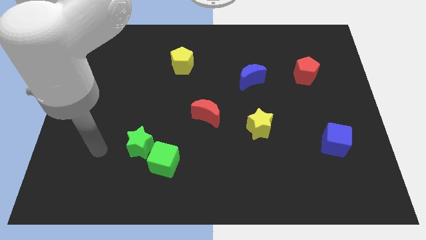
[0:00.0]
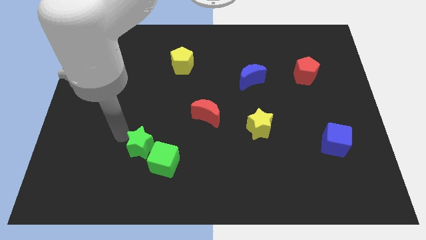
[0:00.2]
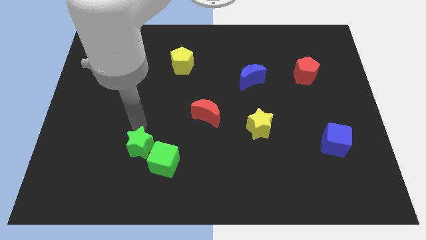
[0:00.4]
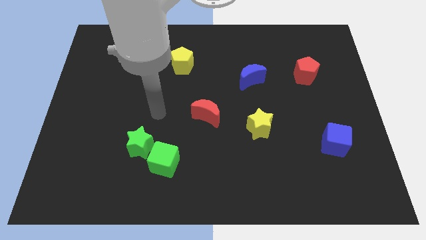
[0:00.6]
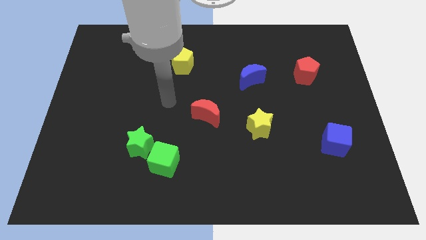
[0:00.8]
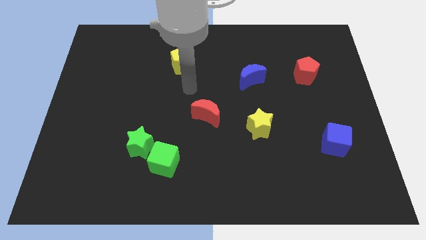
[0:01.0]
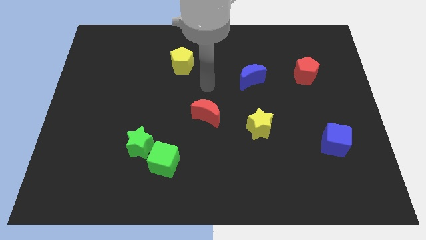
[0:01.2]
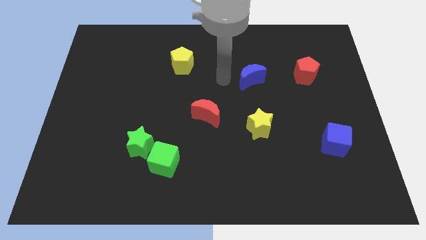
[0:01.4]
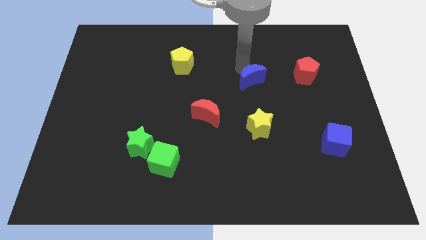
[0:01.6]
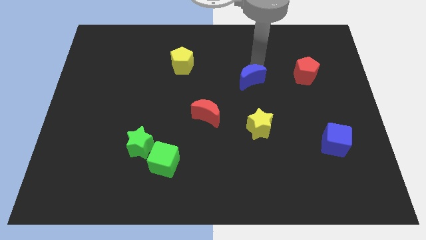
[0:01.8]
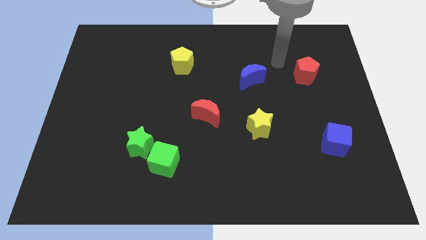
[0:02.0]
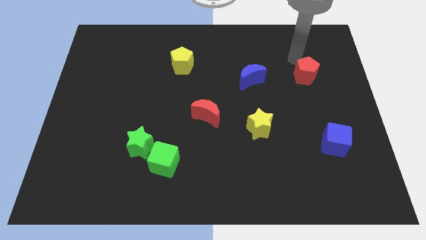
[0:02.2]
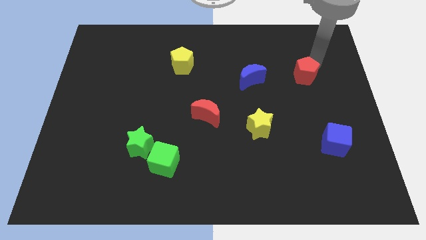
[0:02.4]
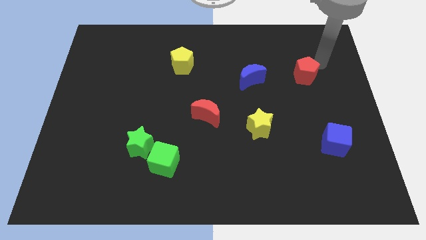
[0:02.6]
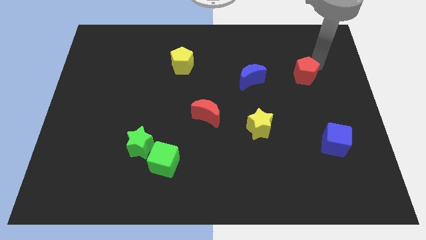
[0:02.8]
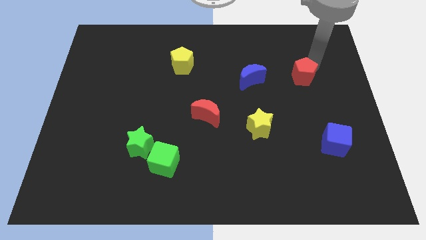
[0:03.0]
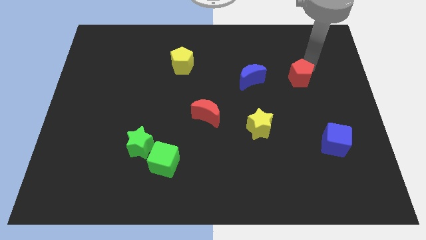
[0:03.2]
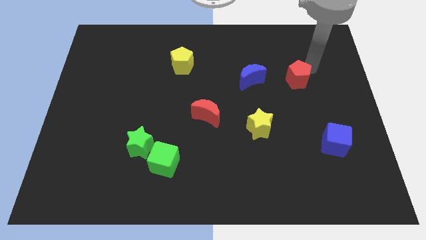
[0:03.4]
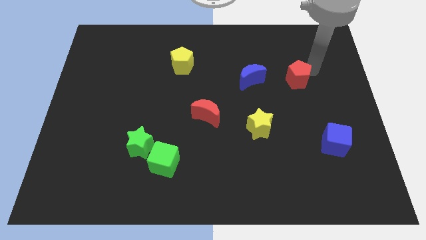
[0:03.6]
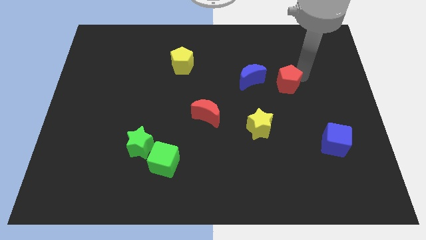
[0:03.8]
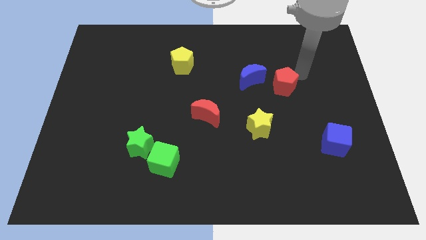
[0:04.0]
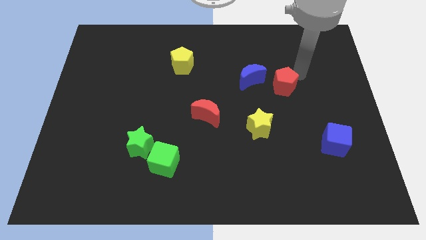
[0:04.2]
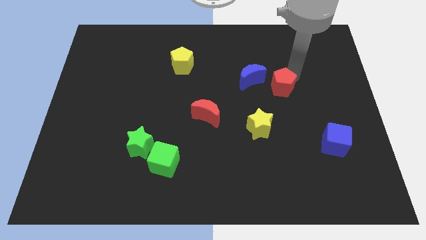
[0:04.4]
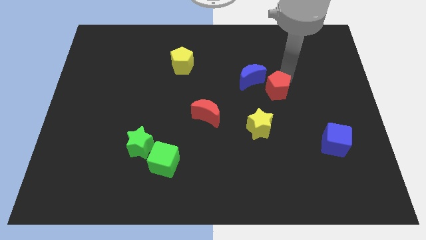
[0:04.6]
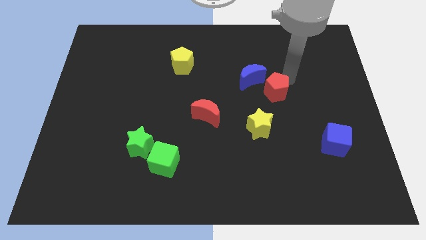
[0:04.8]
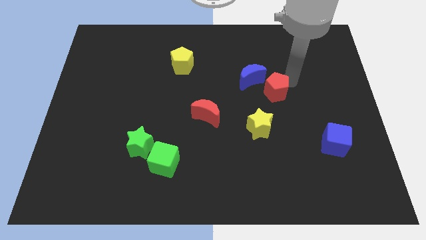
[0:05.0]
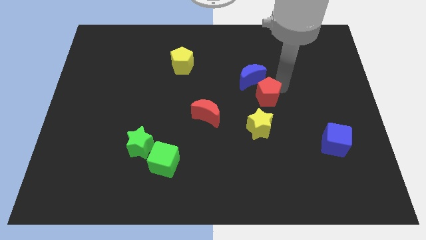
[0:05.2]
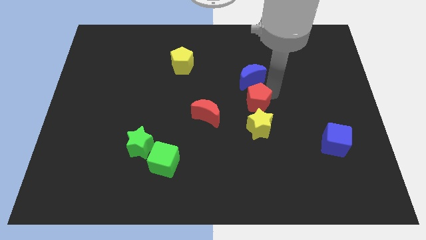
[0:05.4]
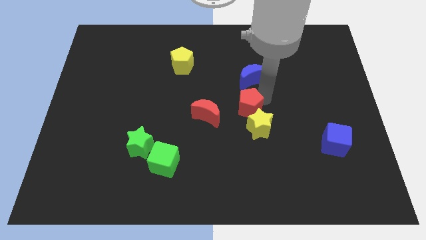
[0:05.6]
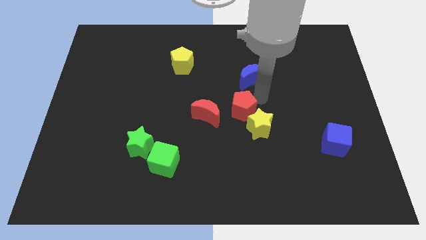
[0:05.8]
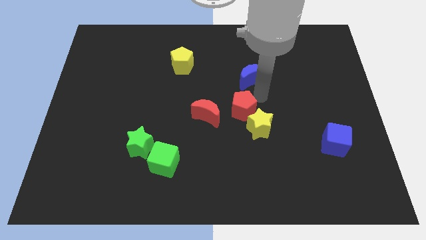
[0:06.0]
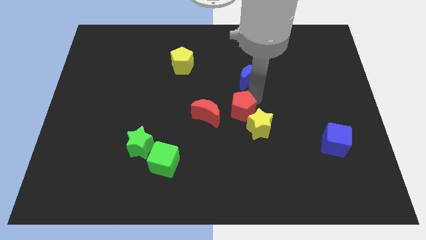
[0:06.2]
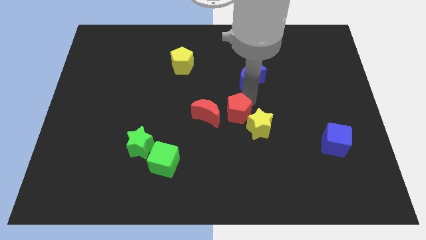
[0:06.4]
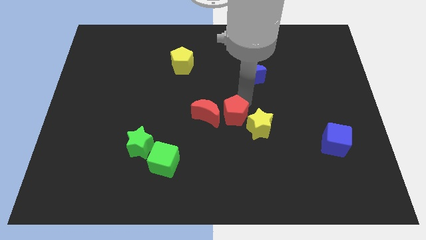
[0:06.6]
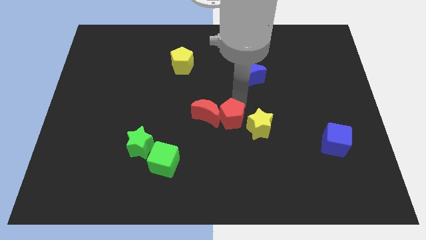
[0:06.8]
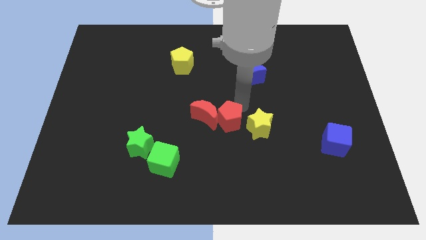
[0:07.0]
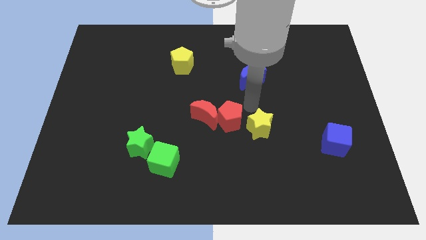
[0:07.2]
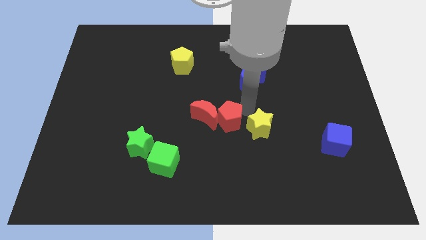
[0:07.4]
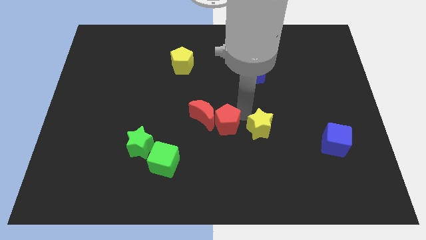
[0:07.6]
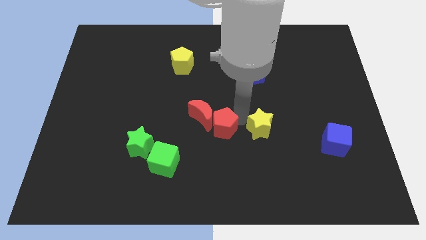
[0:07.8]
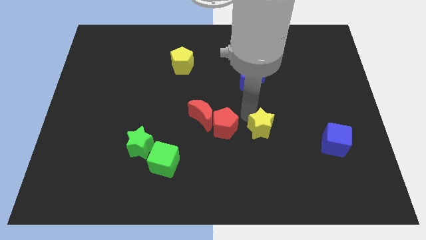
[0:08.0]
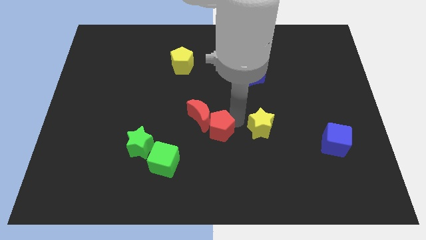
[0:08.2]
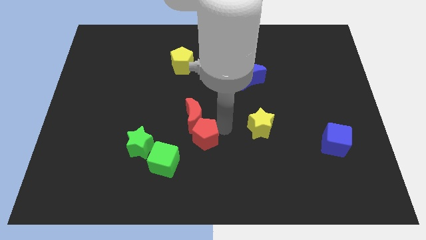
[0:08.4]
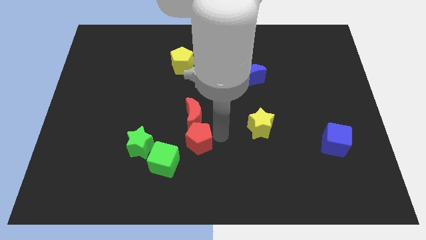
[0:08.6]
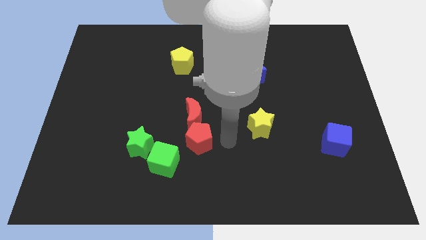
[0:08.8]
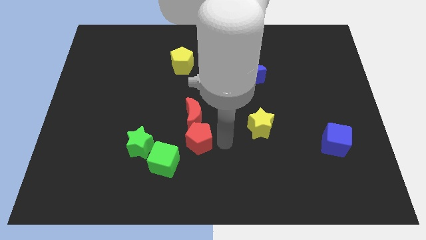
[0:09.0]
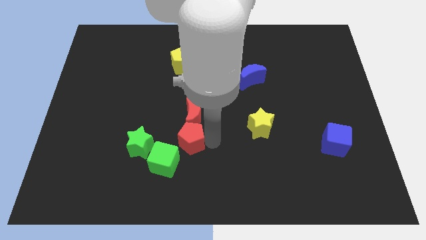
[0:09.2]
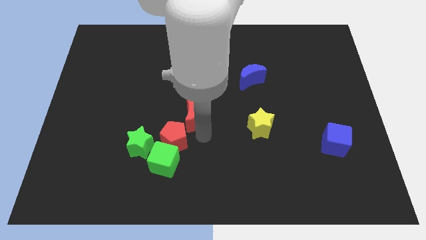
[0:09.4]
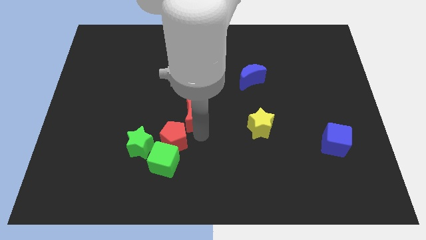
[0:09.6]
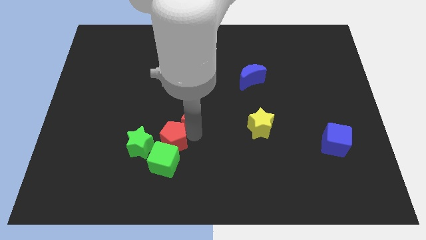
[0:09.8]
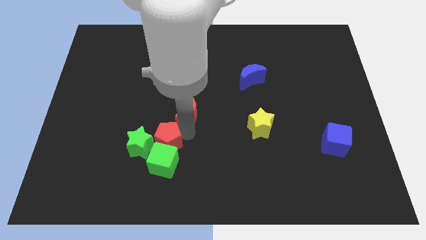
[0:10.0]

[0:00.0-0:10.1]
move the red pentagon towards the green star

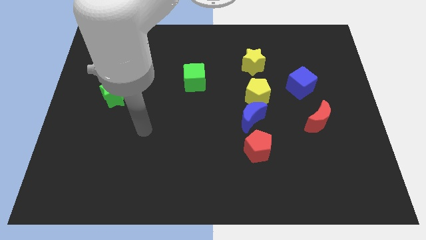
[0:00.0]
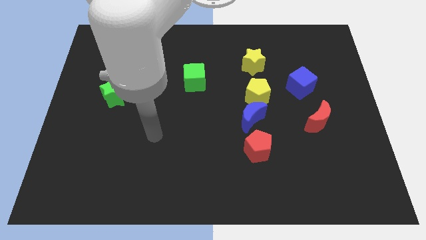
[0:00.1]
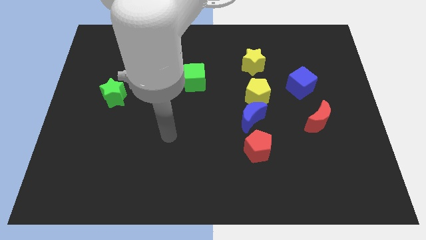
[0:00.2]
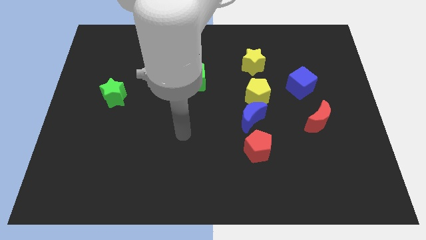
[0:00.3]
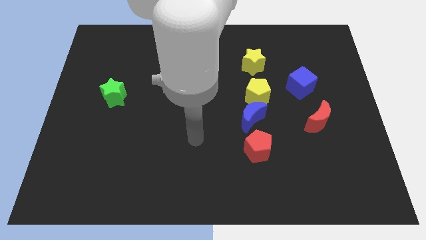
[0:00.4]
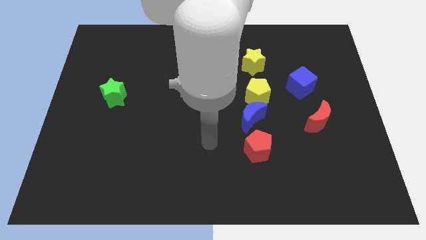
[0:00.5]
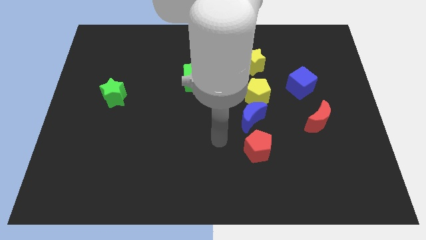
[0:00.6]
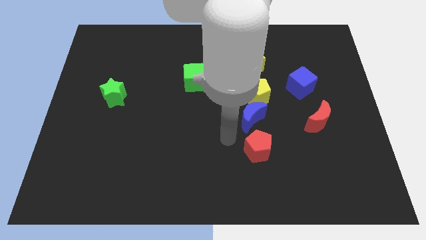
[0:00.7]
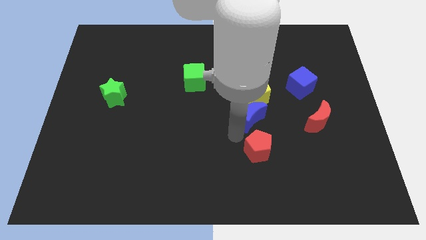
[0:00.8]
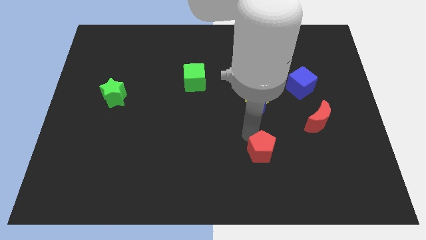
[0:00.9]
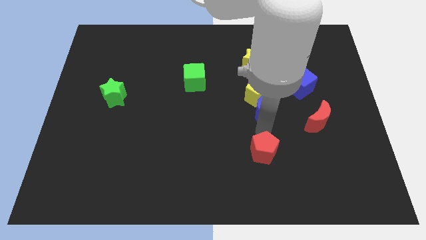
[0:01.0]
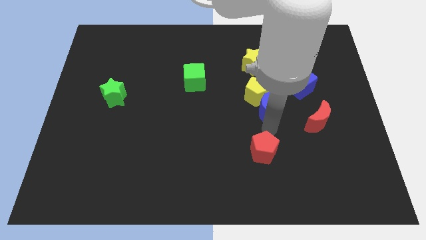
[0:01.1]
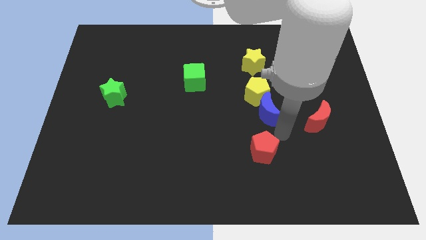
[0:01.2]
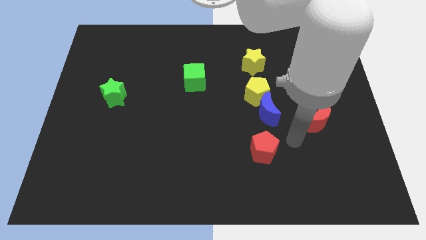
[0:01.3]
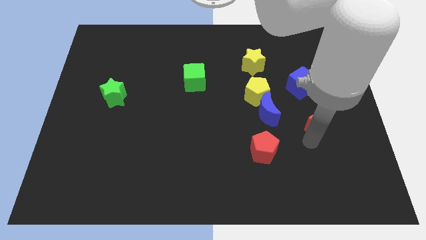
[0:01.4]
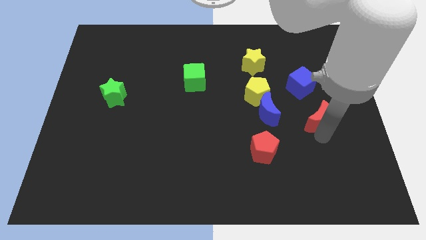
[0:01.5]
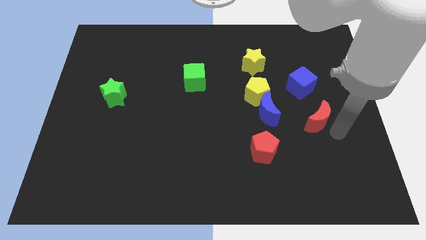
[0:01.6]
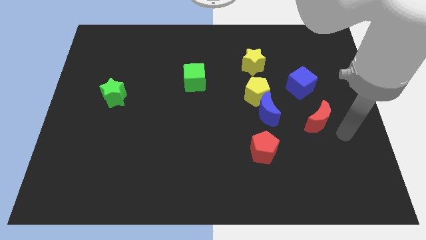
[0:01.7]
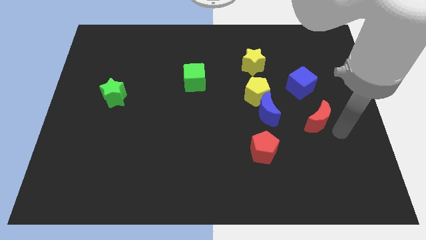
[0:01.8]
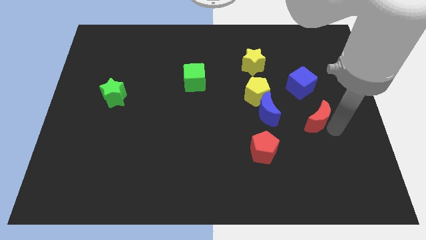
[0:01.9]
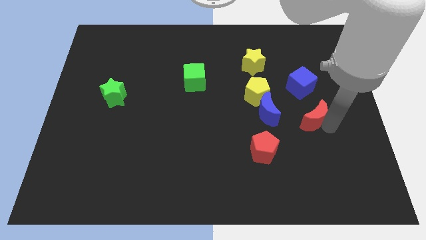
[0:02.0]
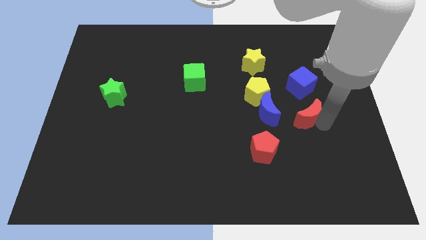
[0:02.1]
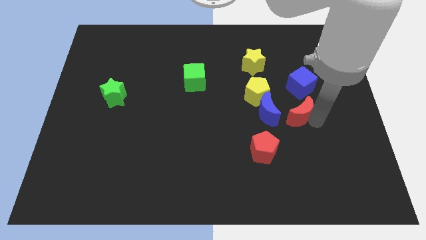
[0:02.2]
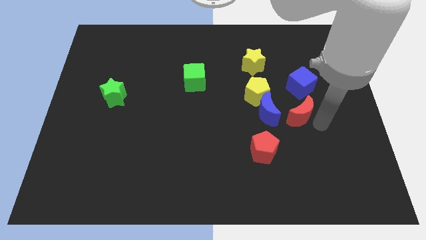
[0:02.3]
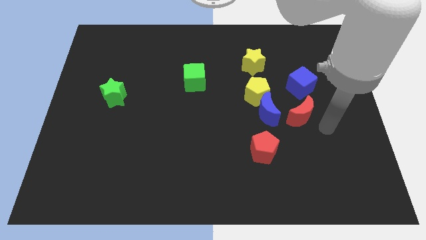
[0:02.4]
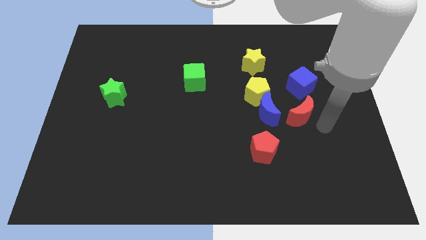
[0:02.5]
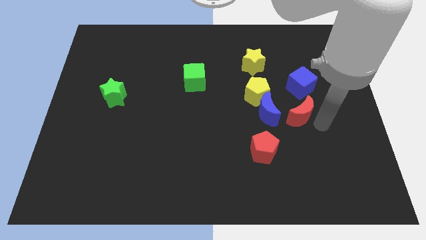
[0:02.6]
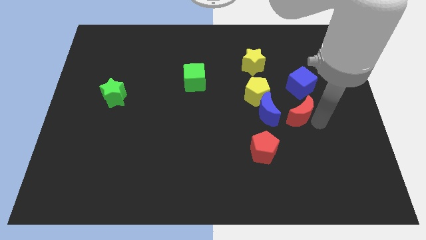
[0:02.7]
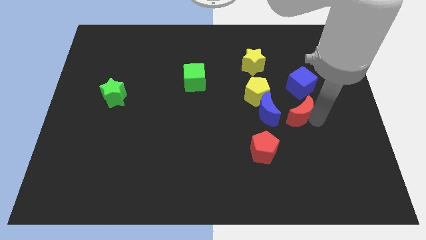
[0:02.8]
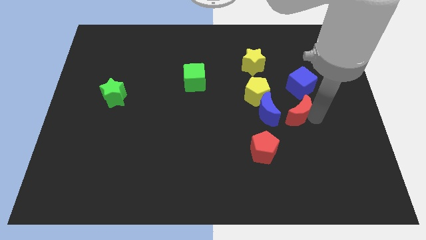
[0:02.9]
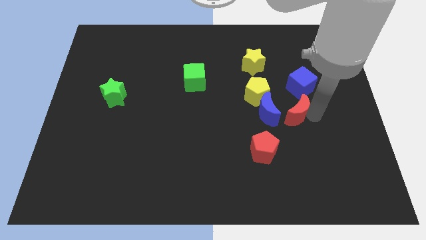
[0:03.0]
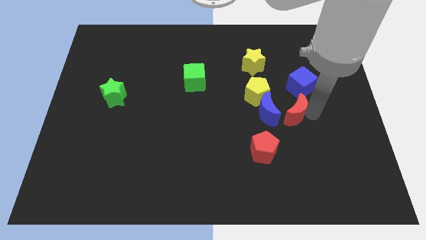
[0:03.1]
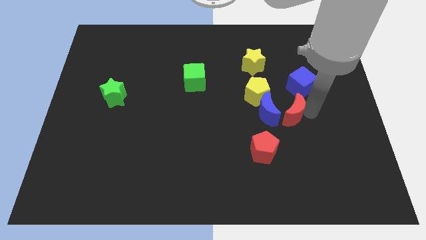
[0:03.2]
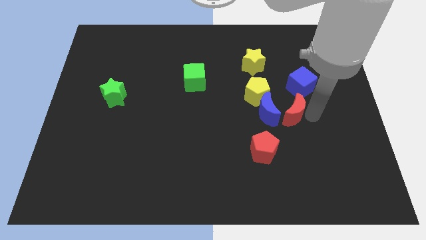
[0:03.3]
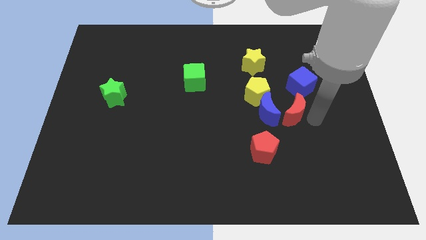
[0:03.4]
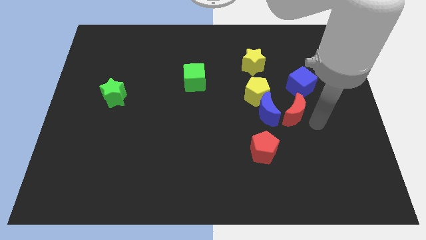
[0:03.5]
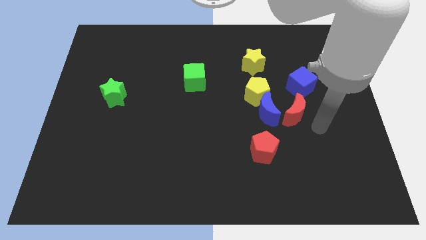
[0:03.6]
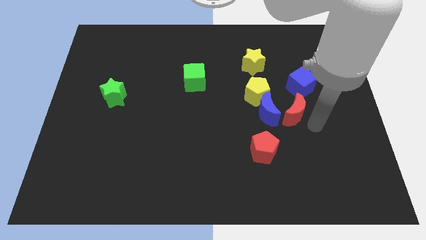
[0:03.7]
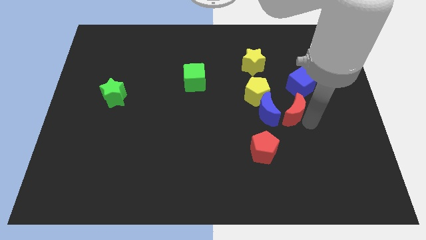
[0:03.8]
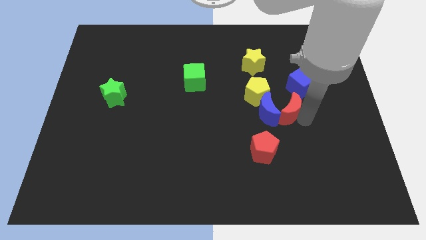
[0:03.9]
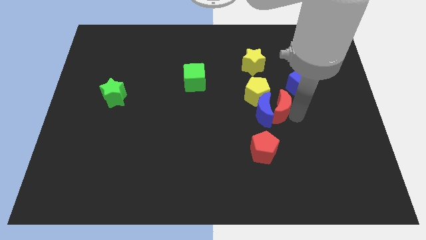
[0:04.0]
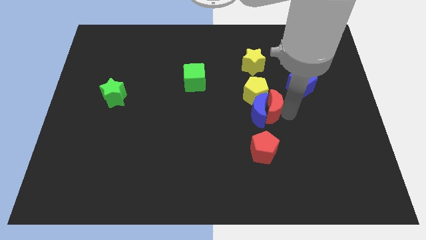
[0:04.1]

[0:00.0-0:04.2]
push the red moon next to the yellow pentagon
